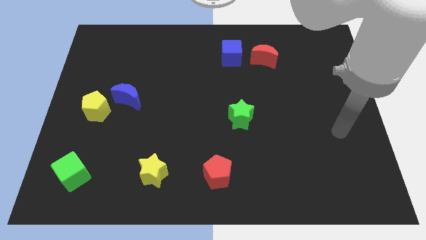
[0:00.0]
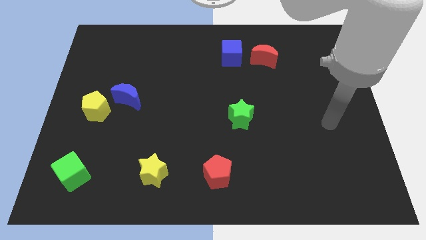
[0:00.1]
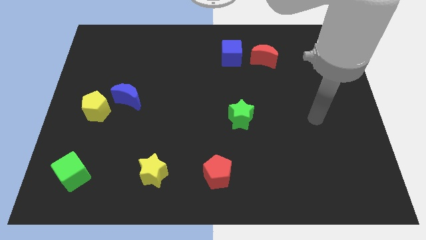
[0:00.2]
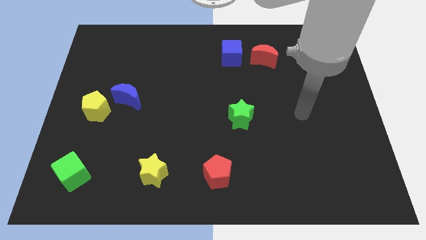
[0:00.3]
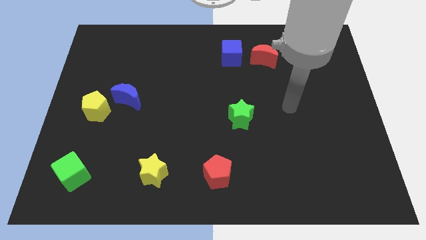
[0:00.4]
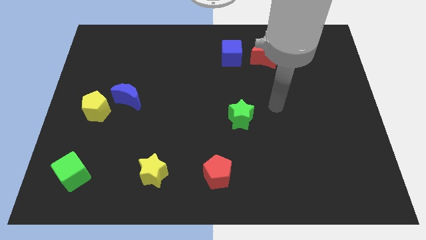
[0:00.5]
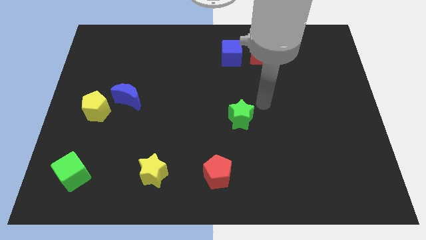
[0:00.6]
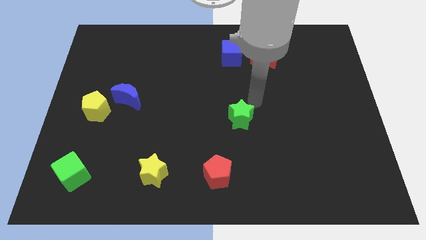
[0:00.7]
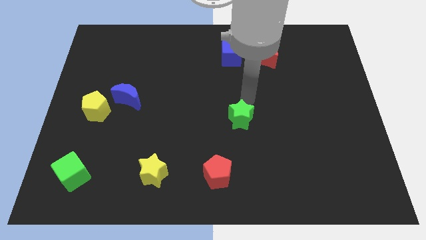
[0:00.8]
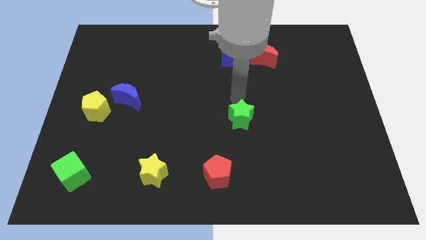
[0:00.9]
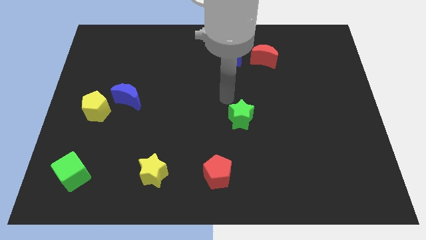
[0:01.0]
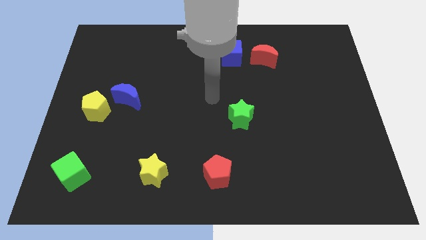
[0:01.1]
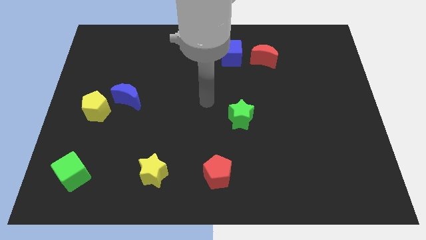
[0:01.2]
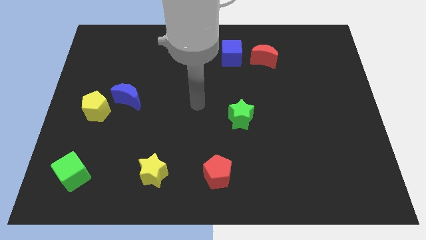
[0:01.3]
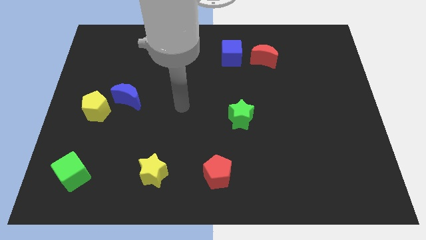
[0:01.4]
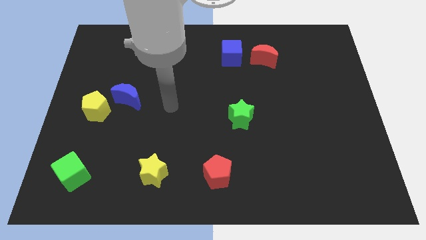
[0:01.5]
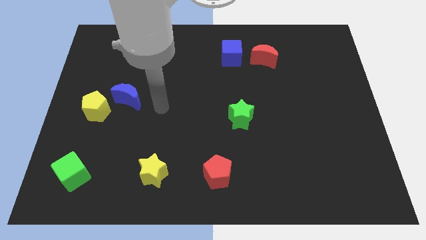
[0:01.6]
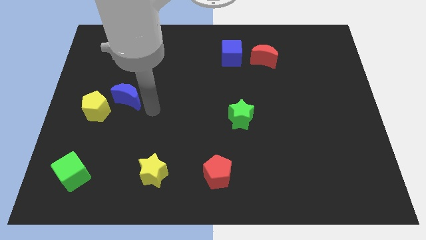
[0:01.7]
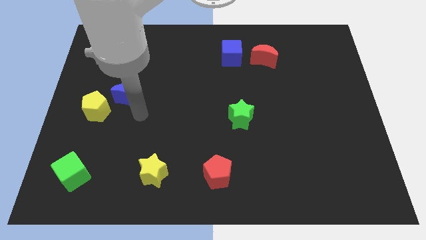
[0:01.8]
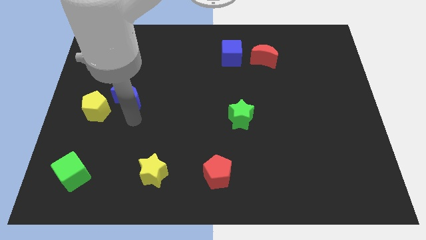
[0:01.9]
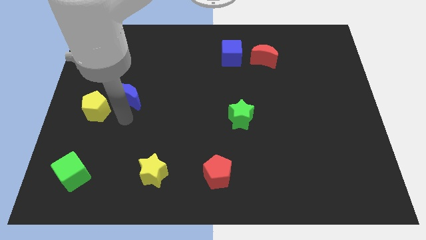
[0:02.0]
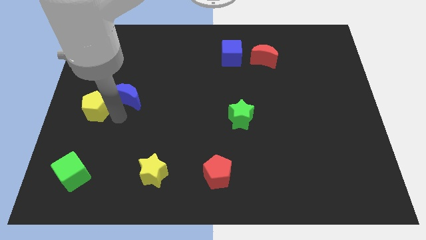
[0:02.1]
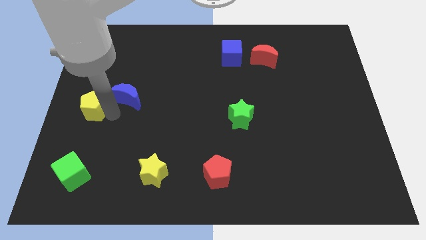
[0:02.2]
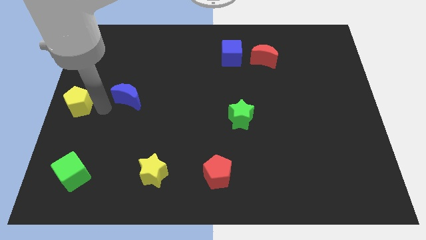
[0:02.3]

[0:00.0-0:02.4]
move the blue moon away from the yellow pentagon

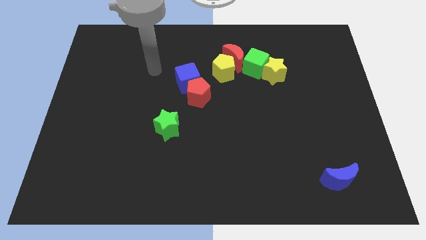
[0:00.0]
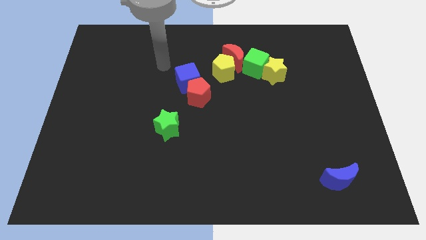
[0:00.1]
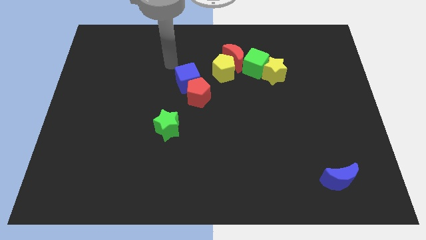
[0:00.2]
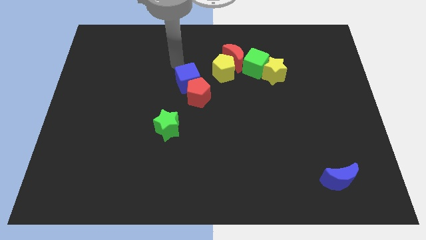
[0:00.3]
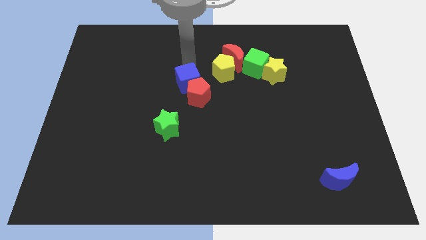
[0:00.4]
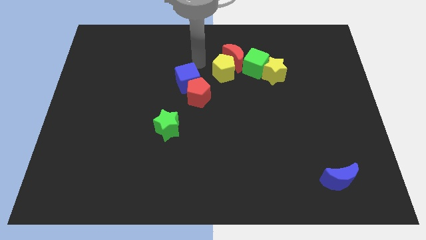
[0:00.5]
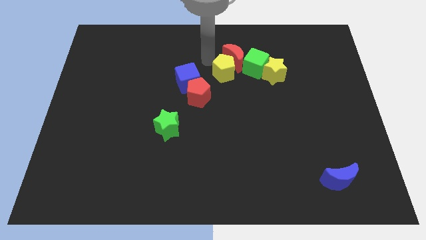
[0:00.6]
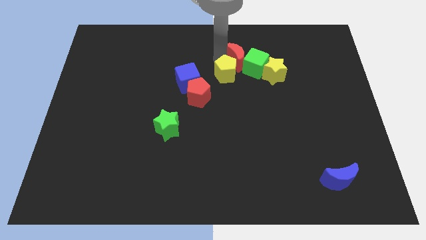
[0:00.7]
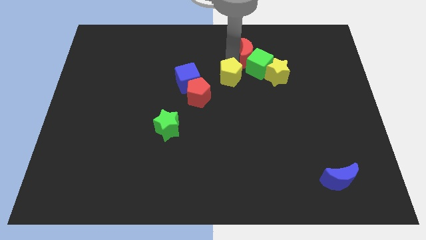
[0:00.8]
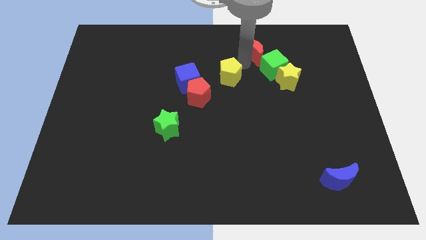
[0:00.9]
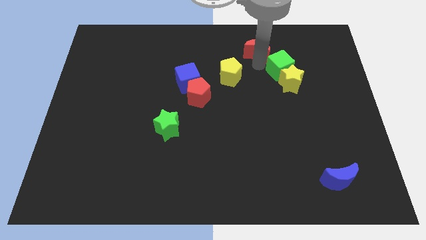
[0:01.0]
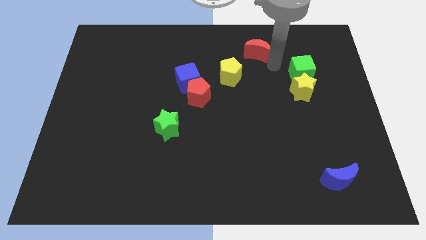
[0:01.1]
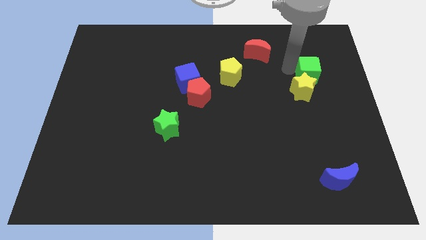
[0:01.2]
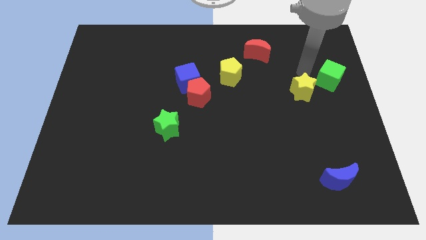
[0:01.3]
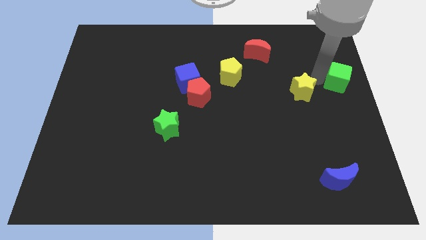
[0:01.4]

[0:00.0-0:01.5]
move the yellow star away from the green cube

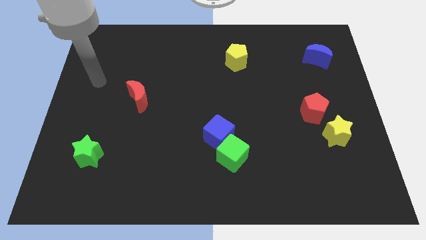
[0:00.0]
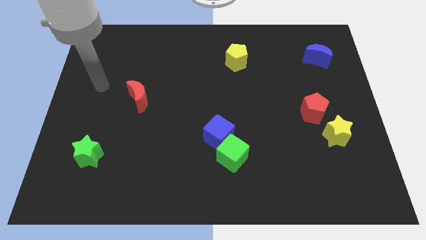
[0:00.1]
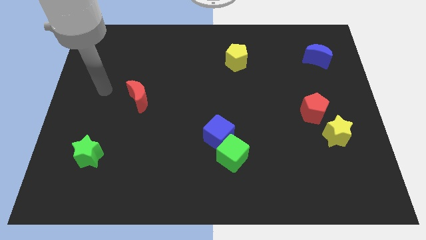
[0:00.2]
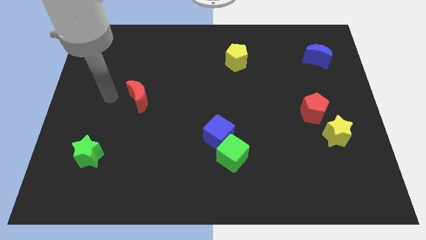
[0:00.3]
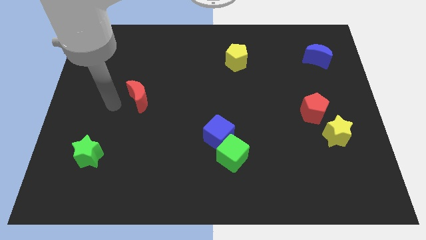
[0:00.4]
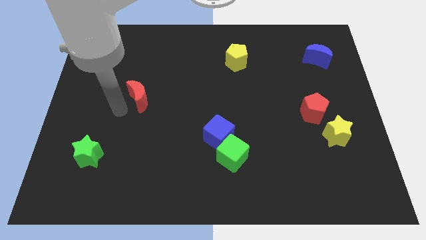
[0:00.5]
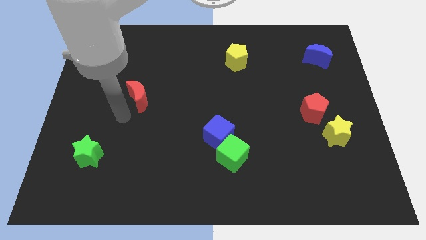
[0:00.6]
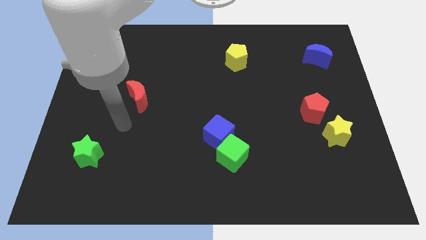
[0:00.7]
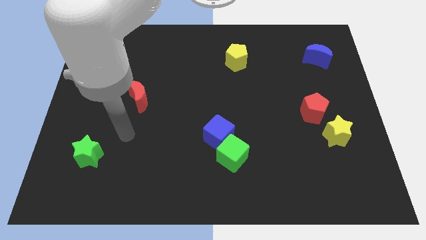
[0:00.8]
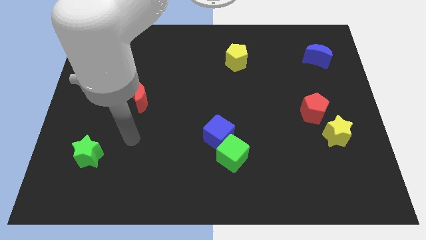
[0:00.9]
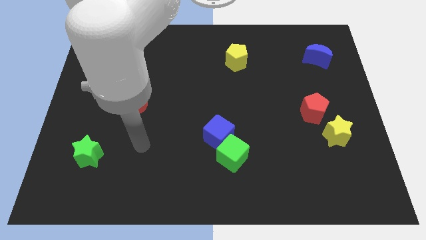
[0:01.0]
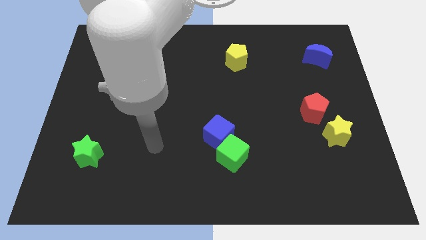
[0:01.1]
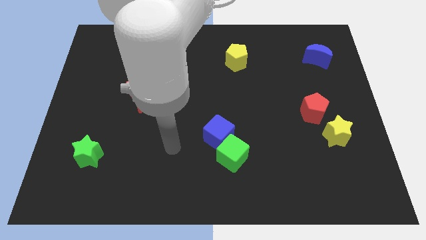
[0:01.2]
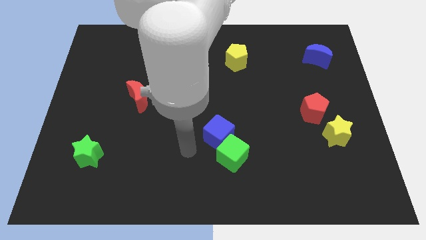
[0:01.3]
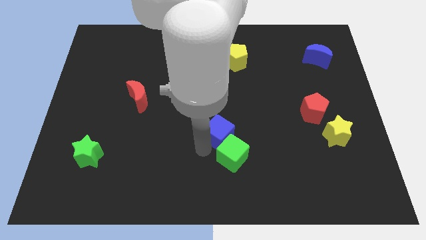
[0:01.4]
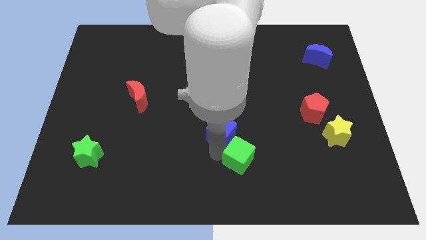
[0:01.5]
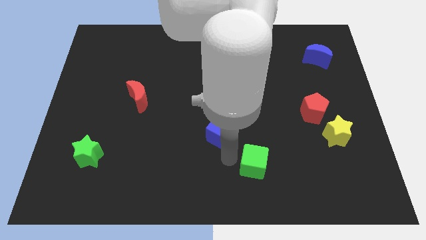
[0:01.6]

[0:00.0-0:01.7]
separate the blue cube from the green cube

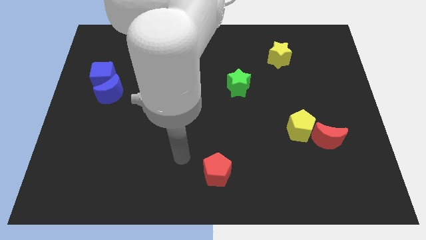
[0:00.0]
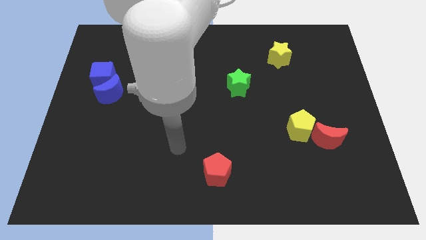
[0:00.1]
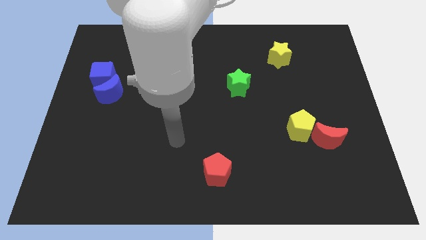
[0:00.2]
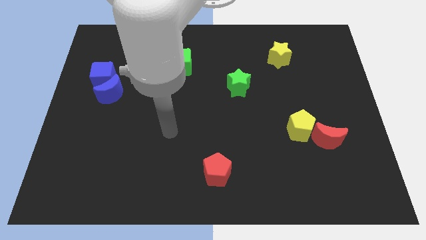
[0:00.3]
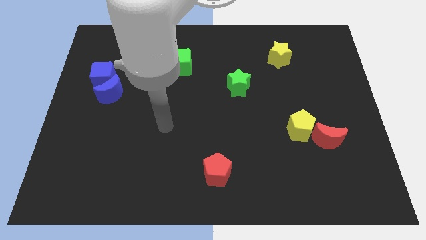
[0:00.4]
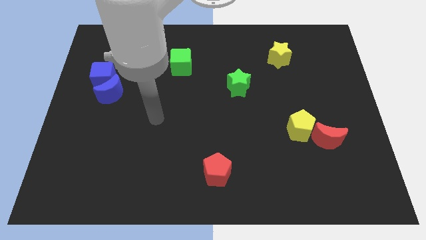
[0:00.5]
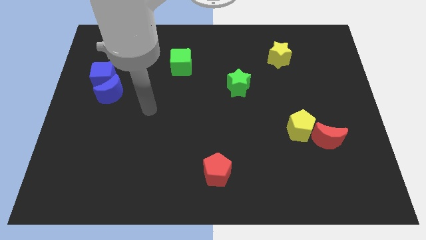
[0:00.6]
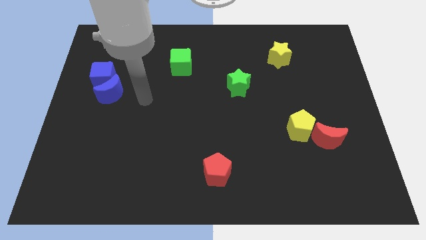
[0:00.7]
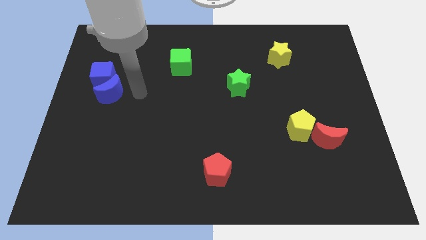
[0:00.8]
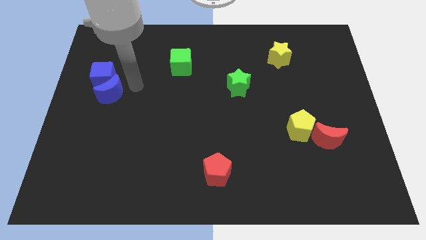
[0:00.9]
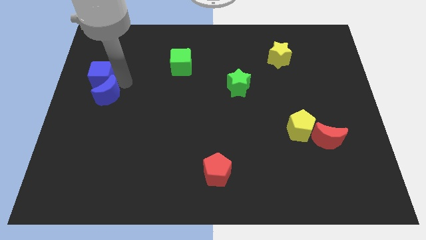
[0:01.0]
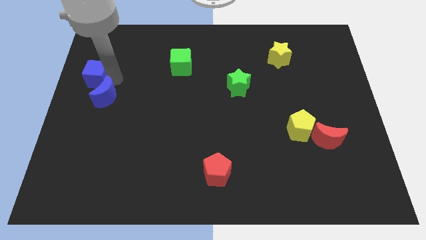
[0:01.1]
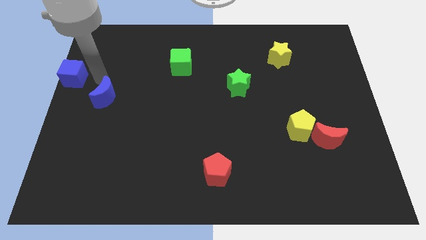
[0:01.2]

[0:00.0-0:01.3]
pull the blue moon apart from the blue cube

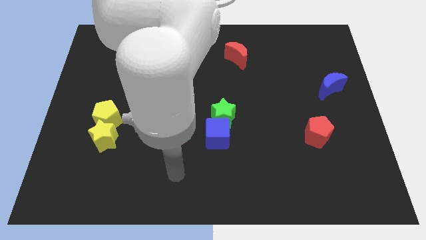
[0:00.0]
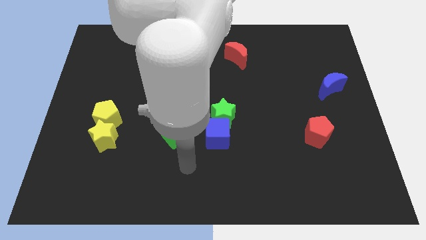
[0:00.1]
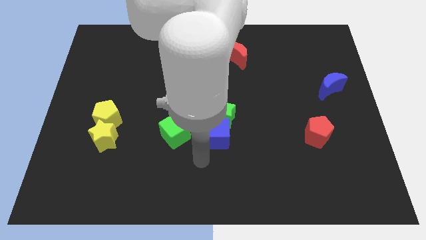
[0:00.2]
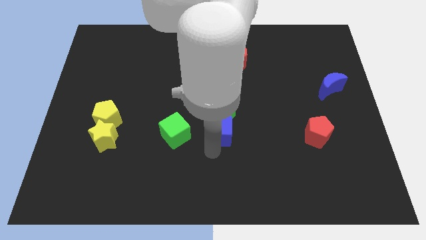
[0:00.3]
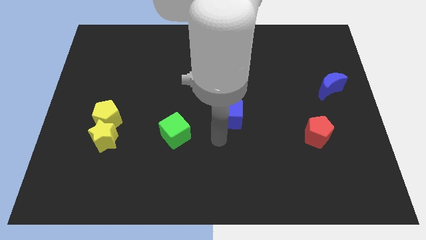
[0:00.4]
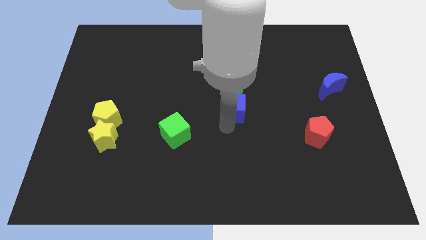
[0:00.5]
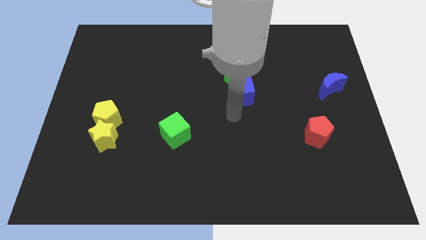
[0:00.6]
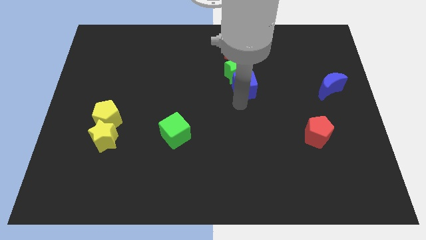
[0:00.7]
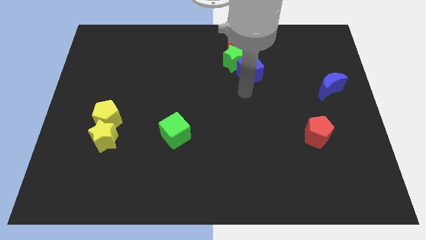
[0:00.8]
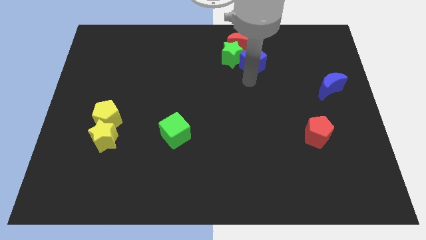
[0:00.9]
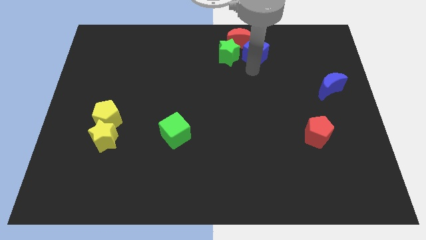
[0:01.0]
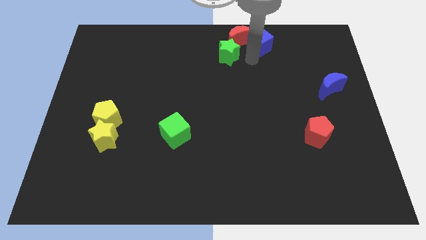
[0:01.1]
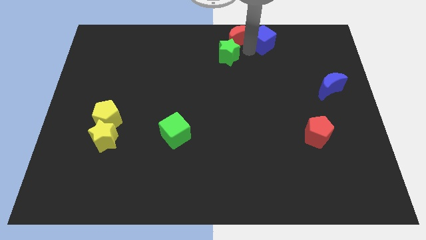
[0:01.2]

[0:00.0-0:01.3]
separate the green star from the blue cube

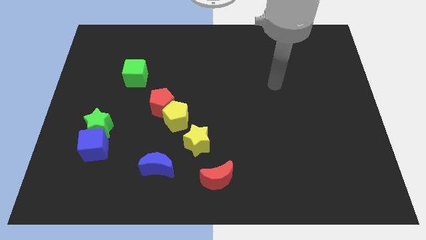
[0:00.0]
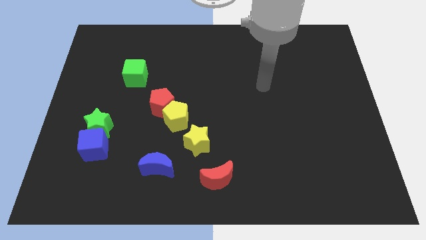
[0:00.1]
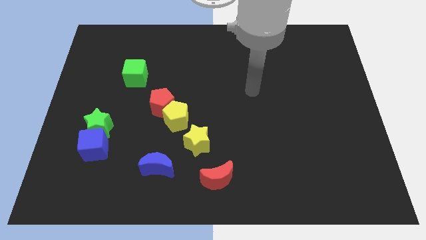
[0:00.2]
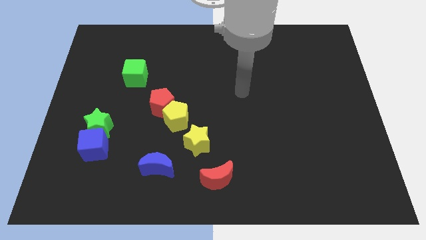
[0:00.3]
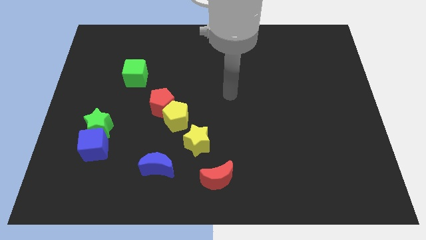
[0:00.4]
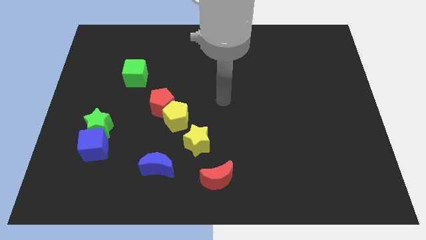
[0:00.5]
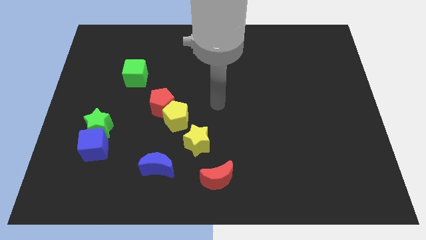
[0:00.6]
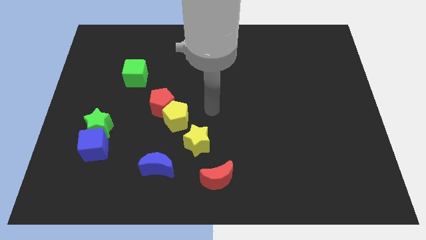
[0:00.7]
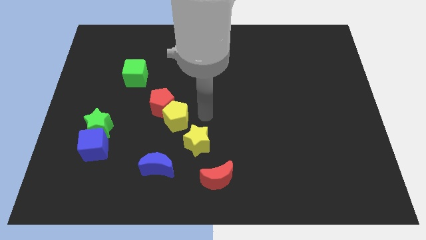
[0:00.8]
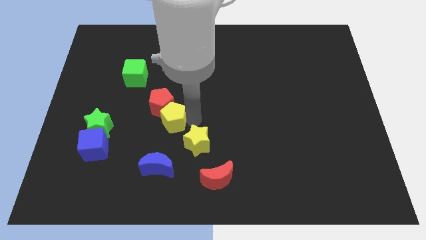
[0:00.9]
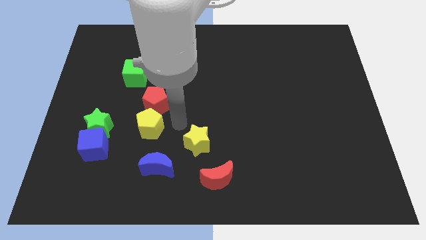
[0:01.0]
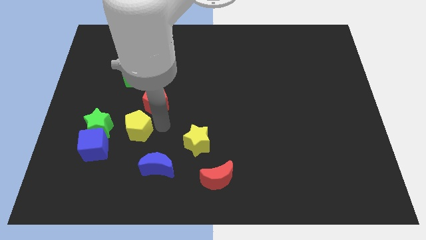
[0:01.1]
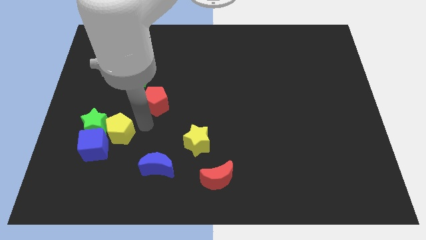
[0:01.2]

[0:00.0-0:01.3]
move the red pentagon away from the yellow pentagon
